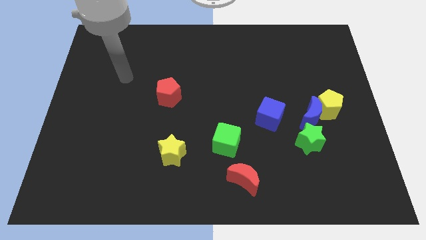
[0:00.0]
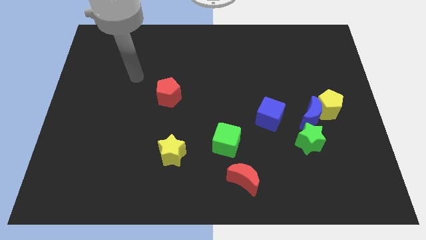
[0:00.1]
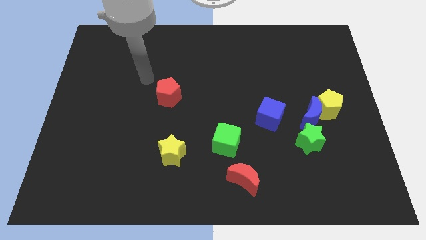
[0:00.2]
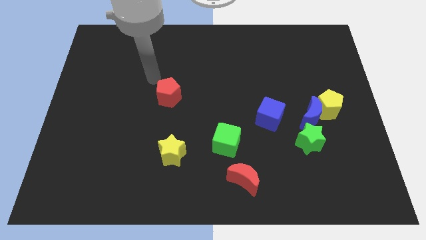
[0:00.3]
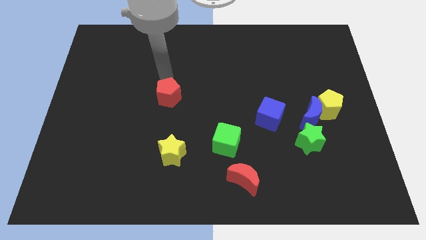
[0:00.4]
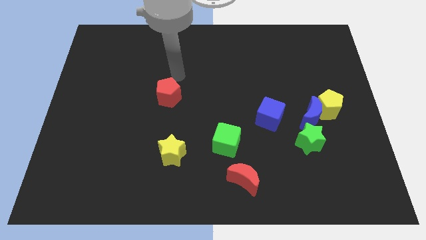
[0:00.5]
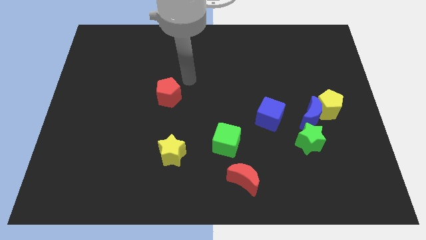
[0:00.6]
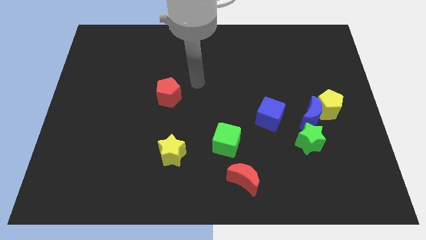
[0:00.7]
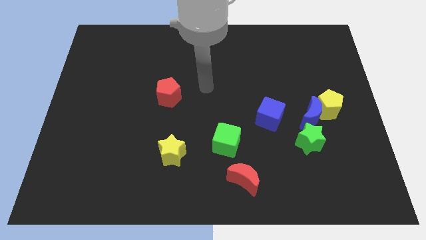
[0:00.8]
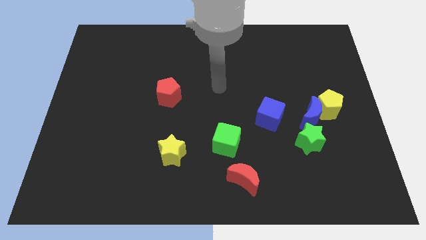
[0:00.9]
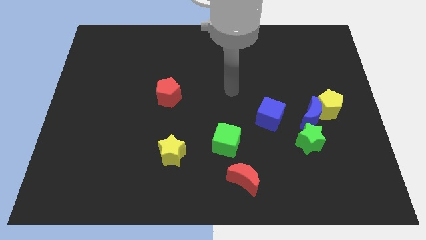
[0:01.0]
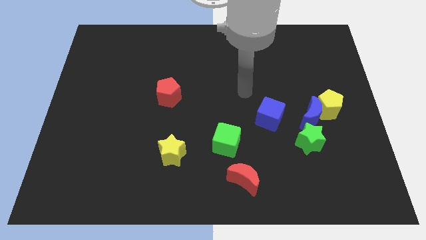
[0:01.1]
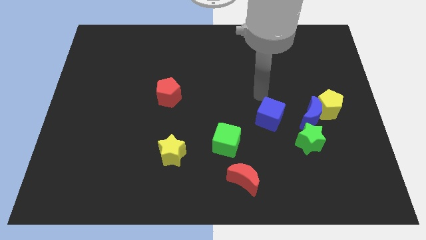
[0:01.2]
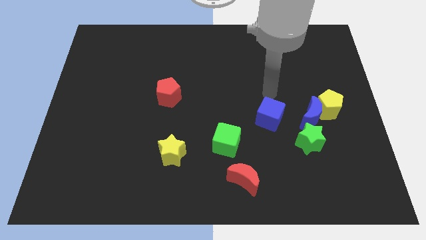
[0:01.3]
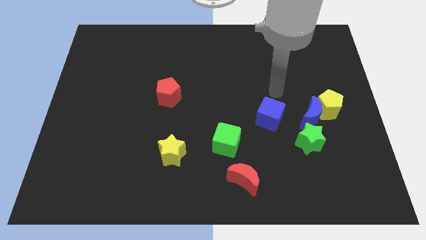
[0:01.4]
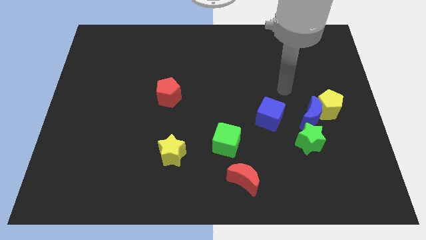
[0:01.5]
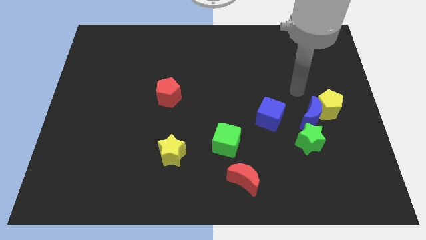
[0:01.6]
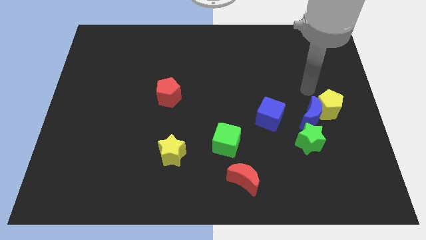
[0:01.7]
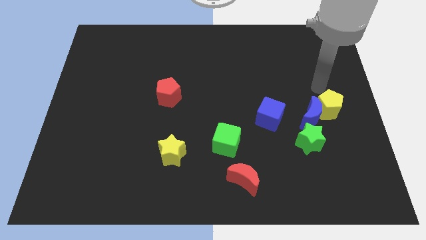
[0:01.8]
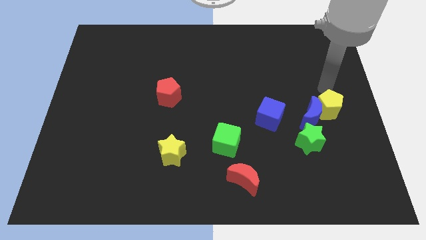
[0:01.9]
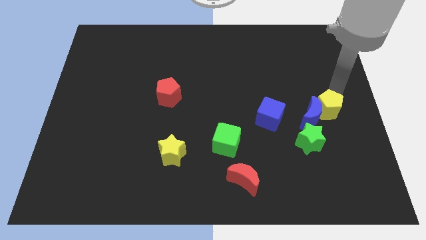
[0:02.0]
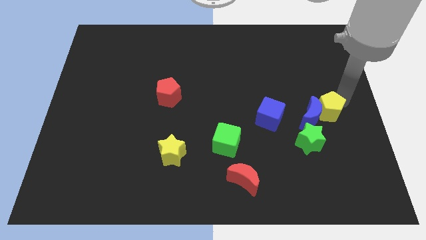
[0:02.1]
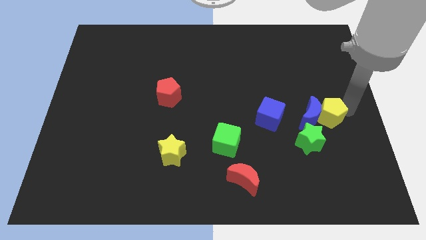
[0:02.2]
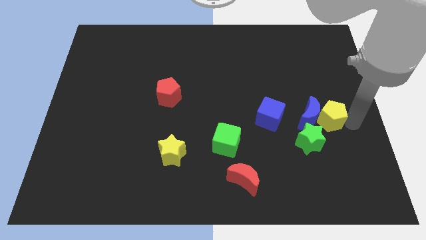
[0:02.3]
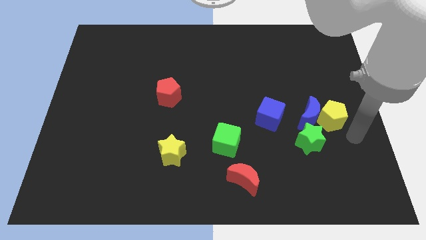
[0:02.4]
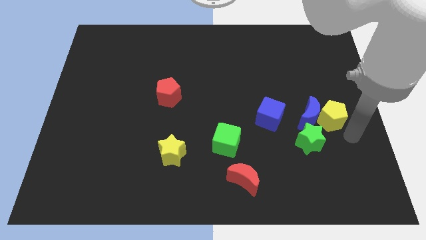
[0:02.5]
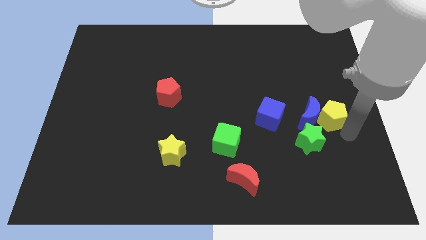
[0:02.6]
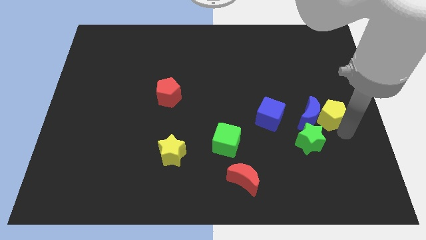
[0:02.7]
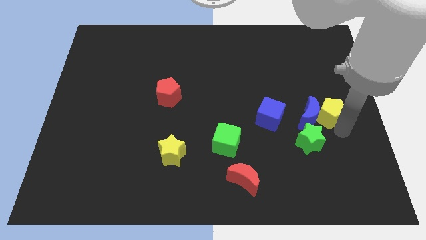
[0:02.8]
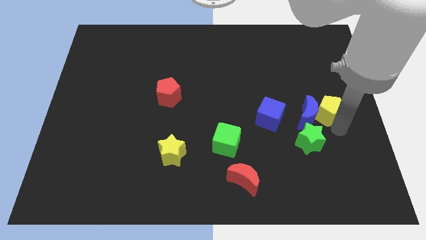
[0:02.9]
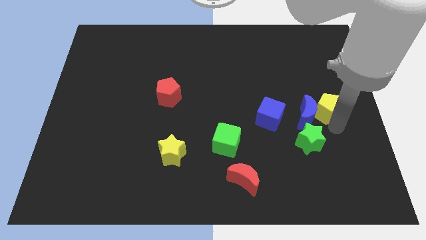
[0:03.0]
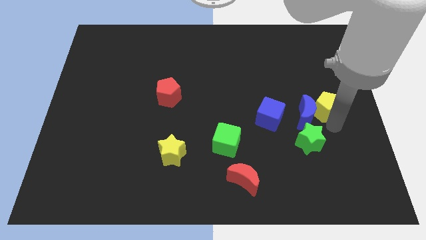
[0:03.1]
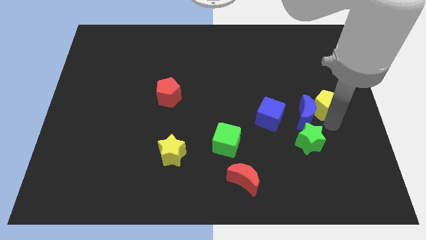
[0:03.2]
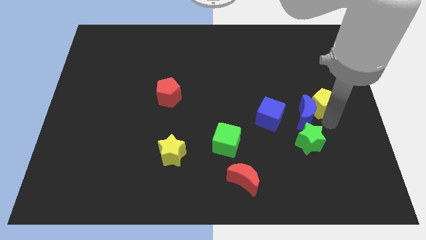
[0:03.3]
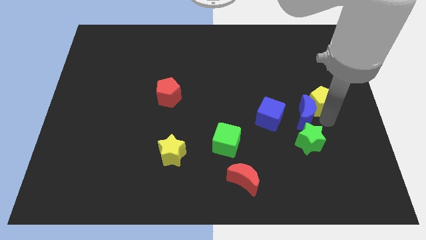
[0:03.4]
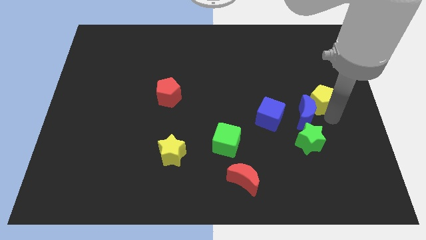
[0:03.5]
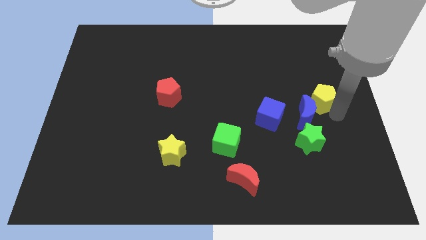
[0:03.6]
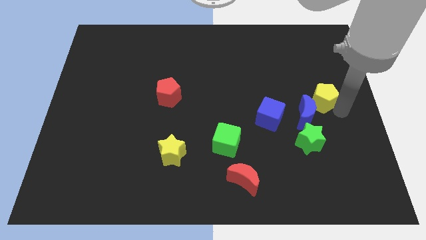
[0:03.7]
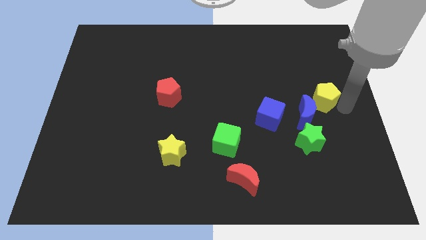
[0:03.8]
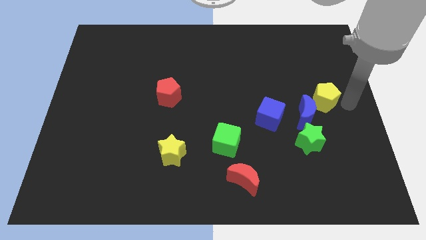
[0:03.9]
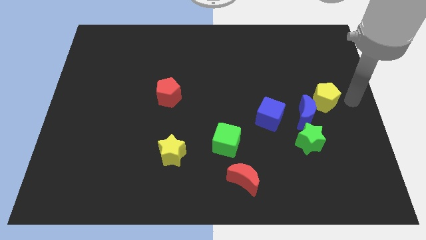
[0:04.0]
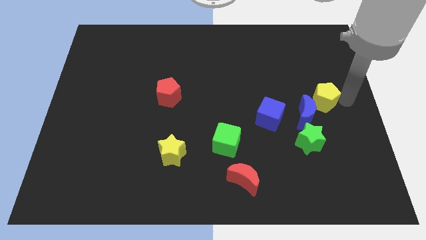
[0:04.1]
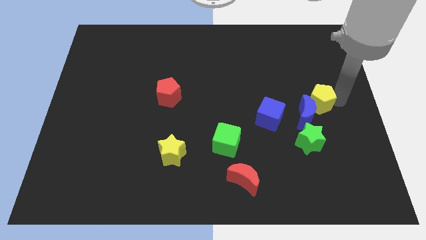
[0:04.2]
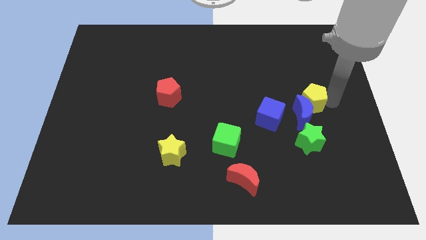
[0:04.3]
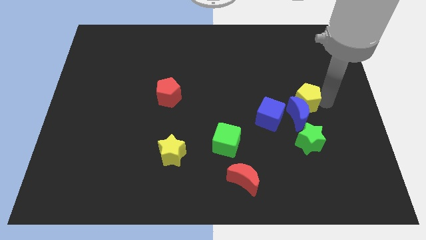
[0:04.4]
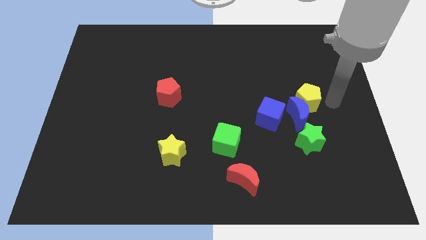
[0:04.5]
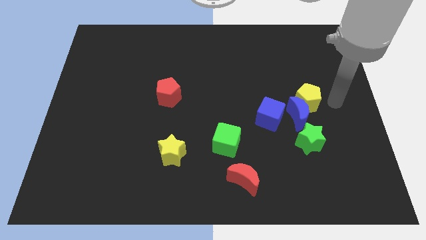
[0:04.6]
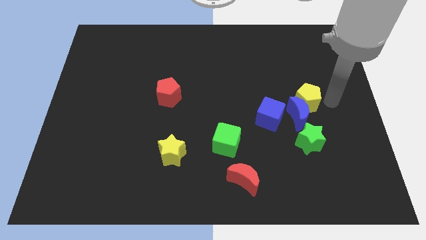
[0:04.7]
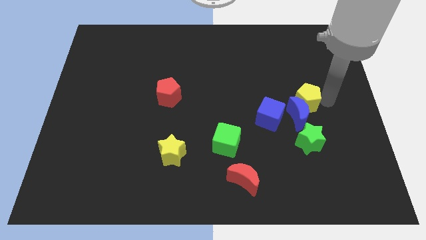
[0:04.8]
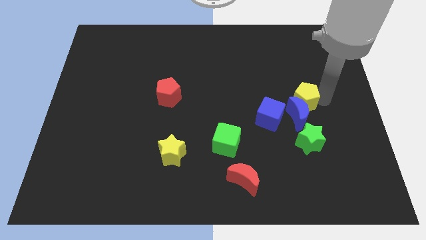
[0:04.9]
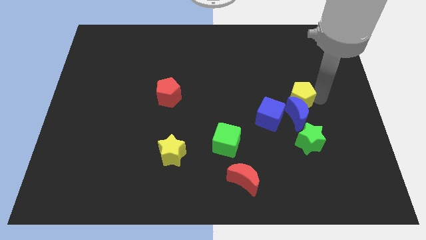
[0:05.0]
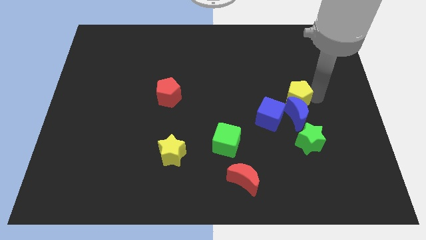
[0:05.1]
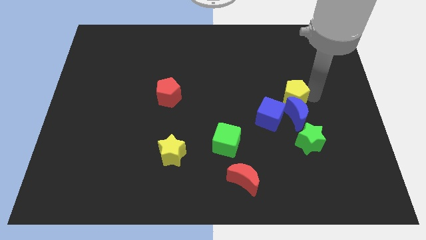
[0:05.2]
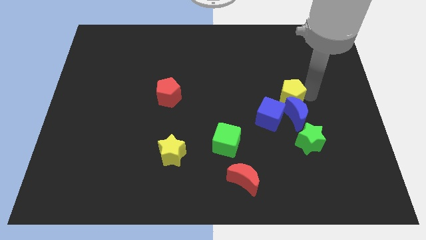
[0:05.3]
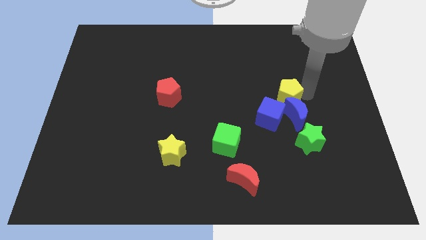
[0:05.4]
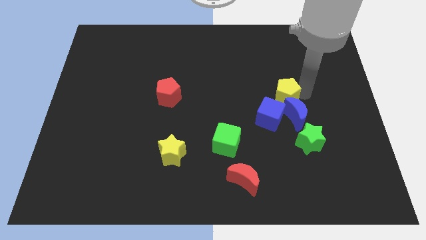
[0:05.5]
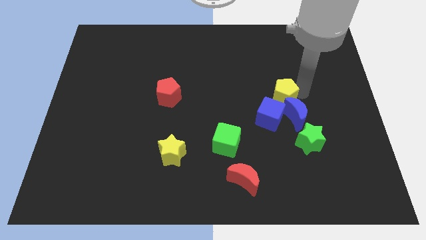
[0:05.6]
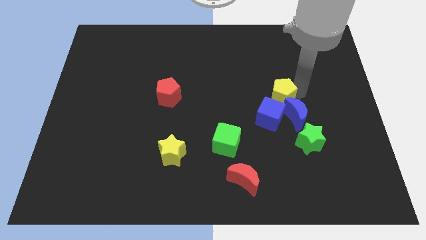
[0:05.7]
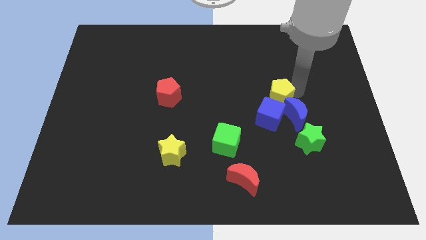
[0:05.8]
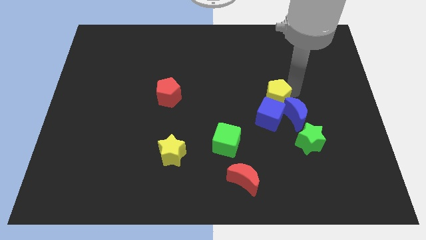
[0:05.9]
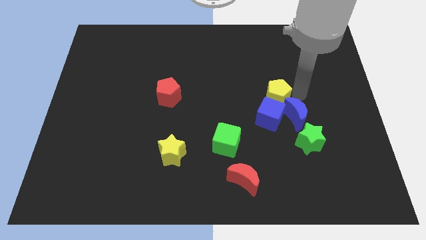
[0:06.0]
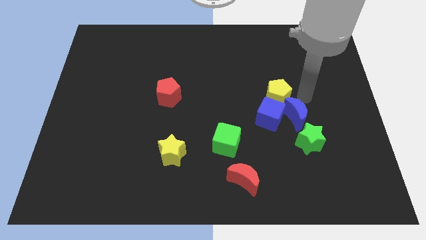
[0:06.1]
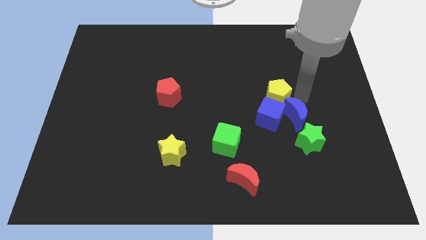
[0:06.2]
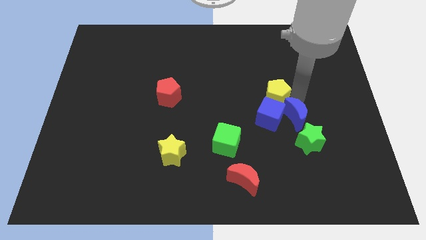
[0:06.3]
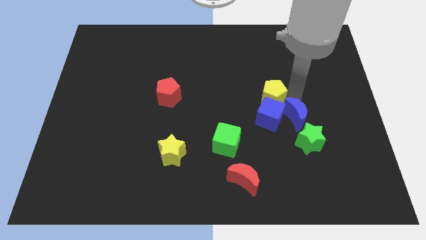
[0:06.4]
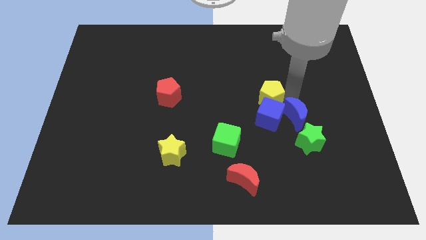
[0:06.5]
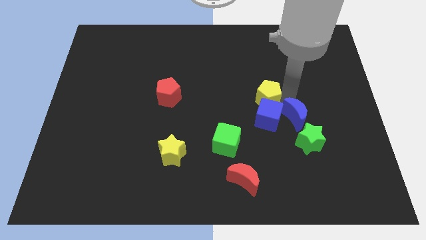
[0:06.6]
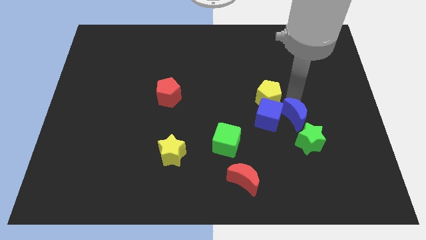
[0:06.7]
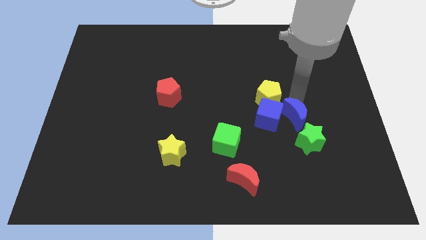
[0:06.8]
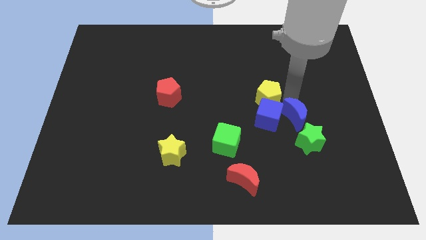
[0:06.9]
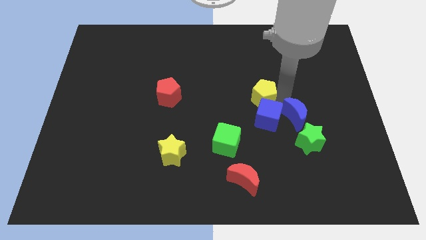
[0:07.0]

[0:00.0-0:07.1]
move the yellow pentagon to the center

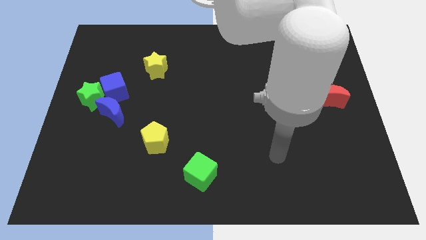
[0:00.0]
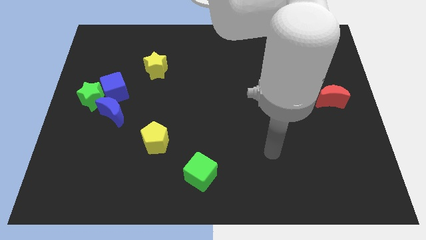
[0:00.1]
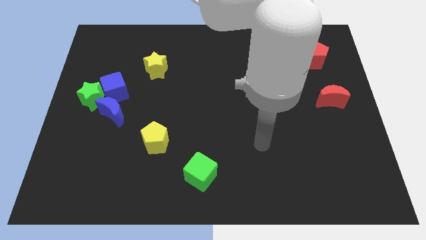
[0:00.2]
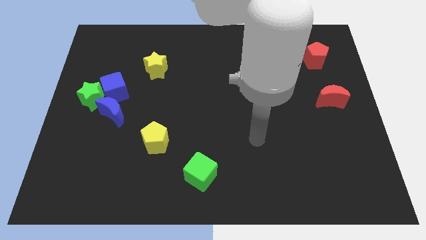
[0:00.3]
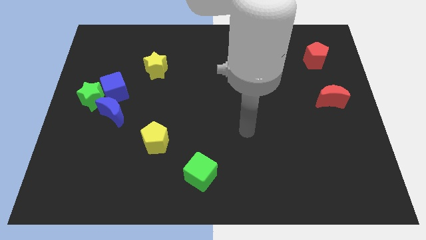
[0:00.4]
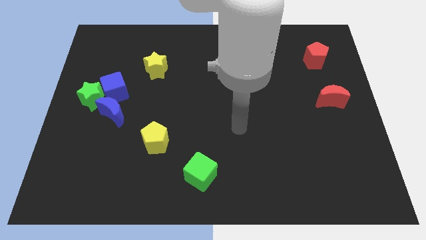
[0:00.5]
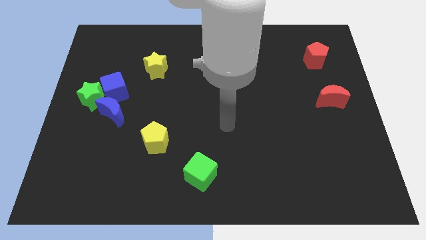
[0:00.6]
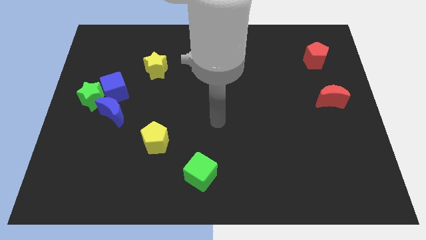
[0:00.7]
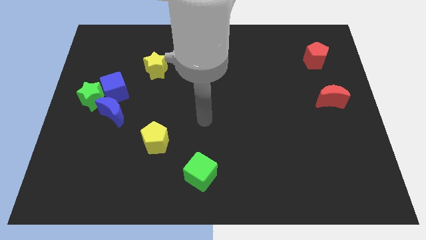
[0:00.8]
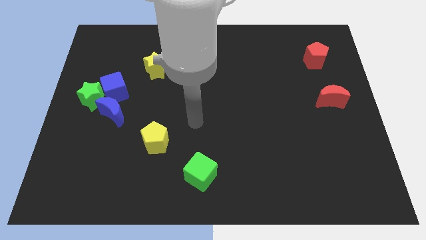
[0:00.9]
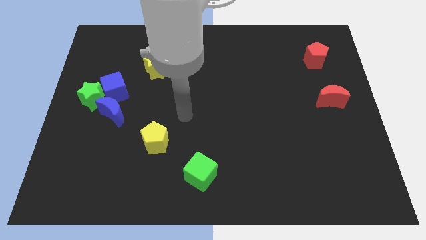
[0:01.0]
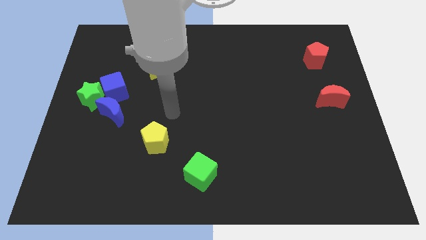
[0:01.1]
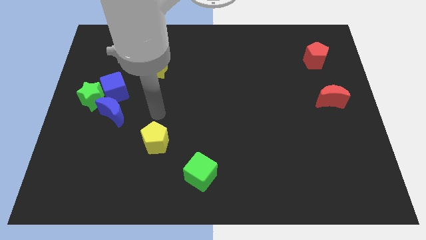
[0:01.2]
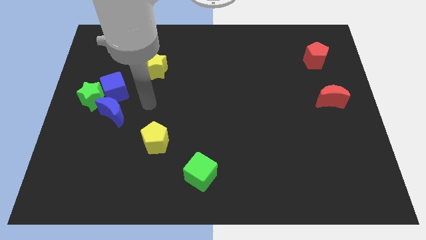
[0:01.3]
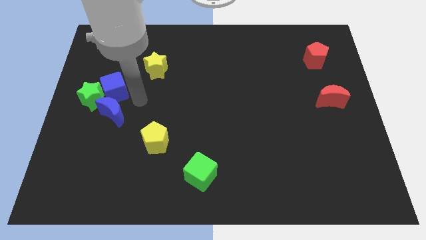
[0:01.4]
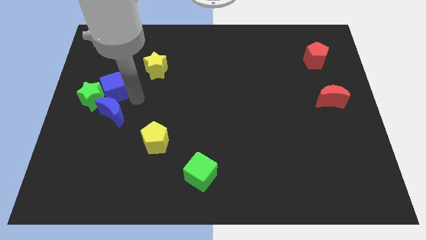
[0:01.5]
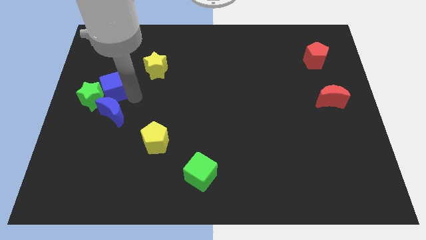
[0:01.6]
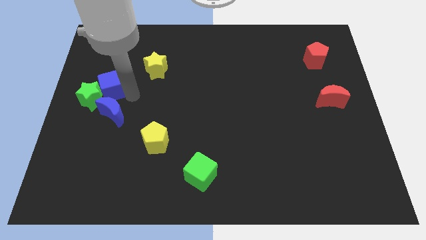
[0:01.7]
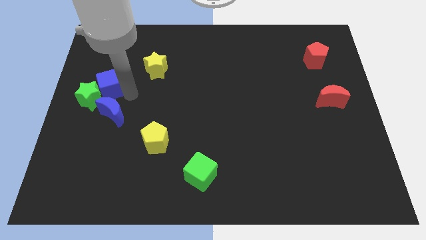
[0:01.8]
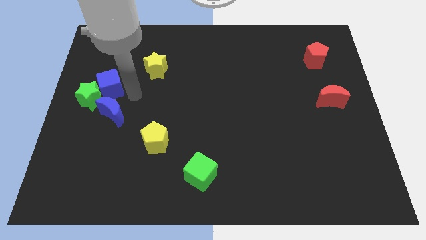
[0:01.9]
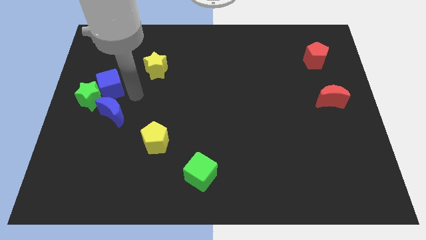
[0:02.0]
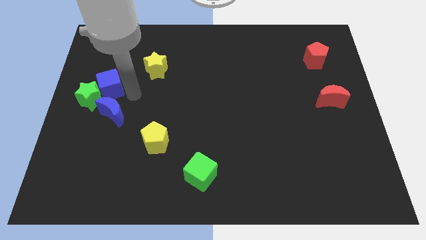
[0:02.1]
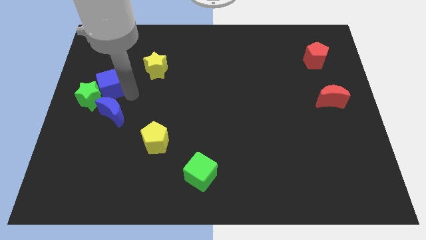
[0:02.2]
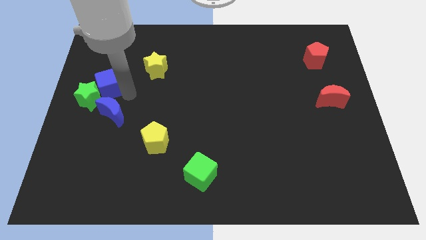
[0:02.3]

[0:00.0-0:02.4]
push the blue cube to the left side of the board
